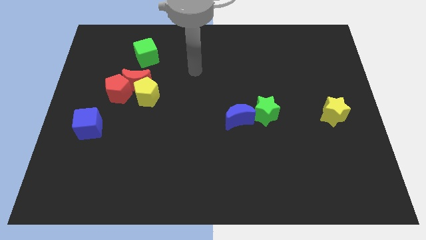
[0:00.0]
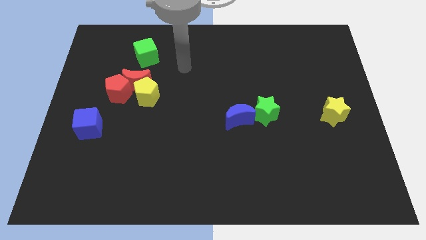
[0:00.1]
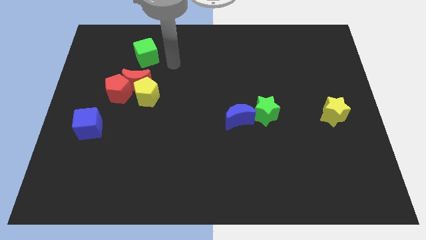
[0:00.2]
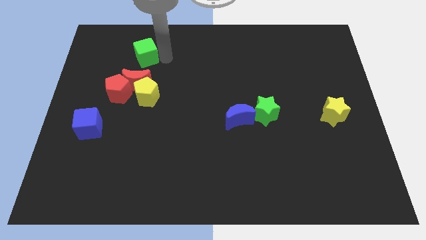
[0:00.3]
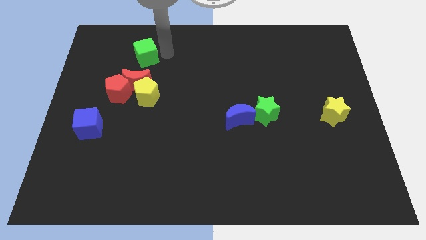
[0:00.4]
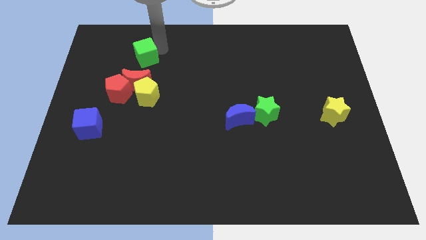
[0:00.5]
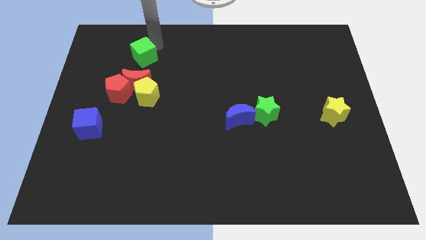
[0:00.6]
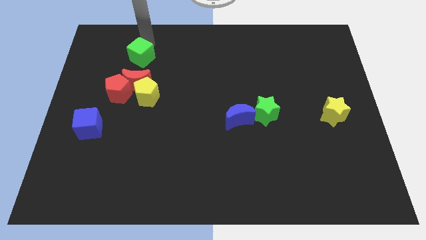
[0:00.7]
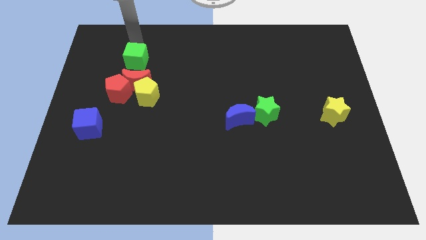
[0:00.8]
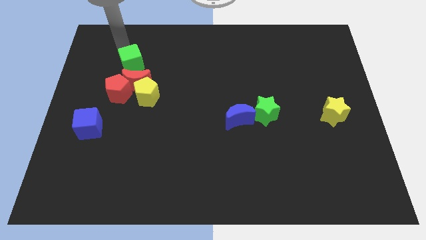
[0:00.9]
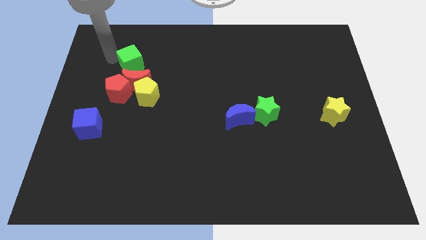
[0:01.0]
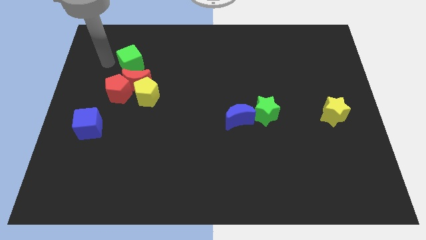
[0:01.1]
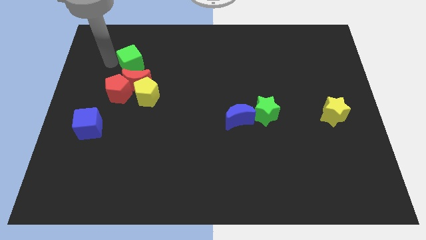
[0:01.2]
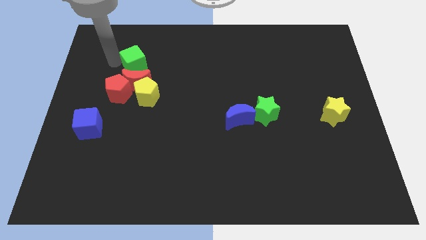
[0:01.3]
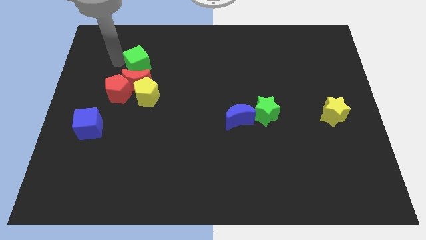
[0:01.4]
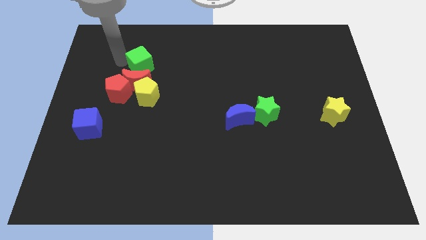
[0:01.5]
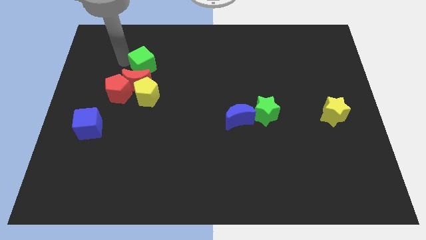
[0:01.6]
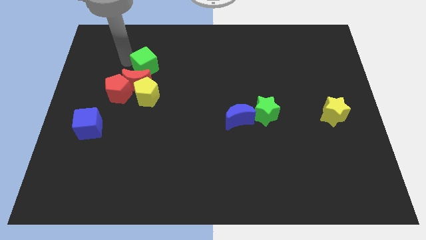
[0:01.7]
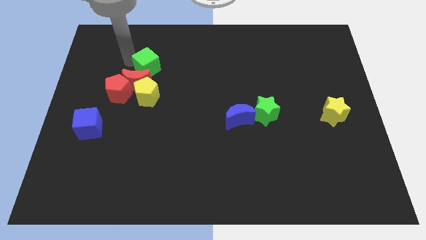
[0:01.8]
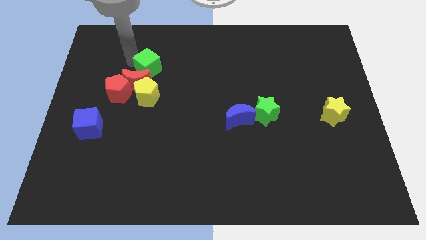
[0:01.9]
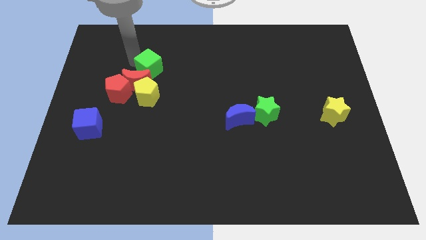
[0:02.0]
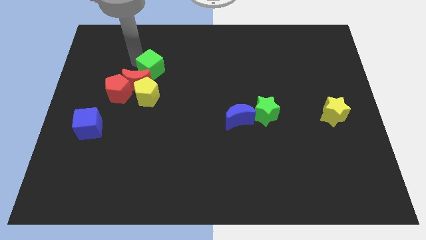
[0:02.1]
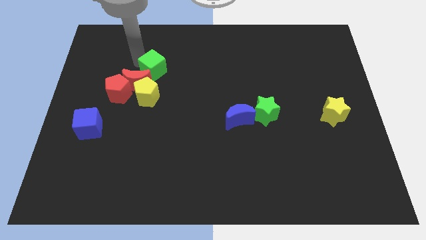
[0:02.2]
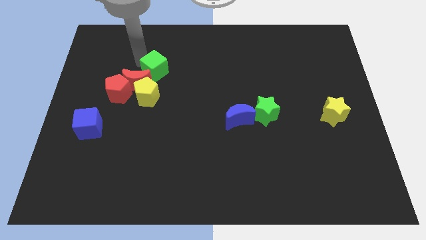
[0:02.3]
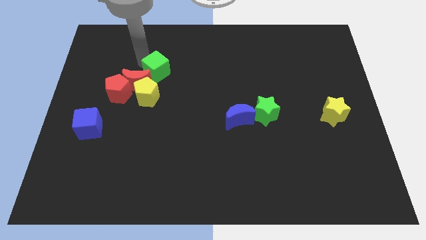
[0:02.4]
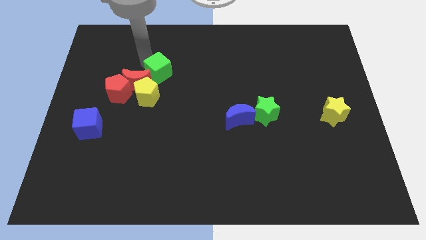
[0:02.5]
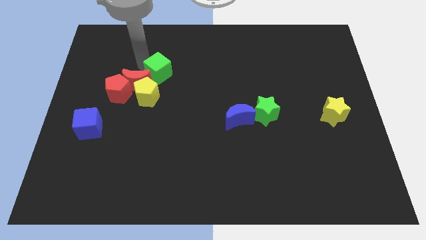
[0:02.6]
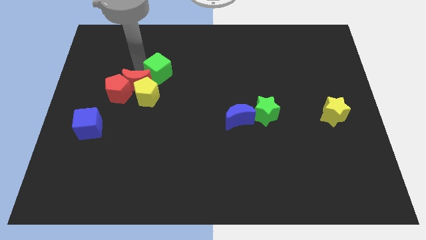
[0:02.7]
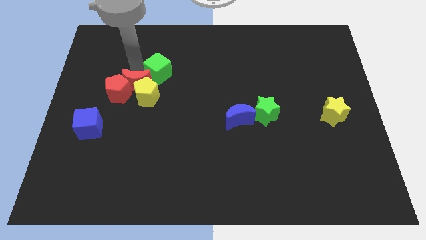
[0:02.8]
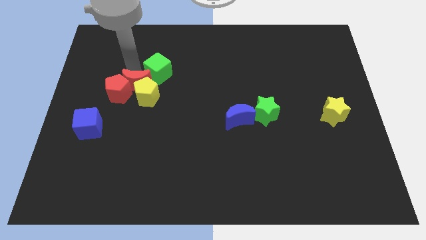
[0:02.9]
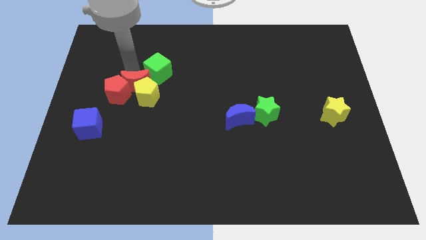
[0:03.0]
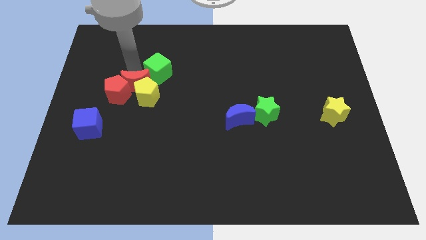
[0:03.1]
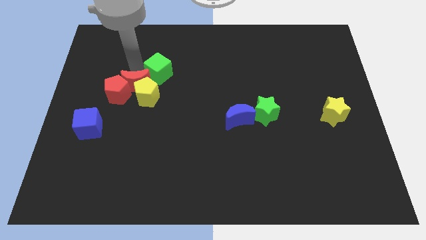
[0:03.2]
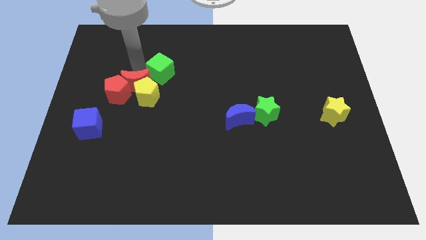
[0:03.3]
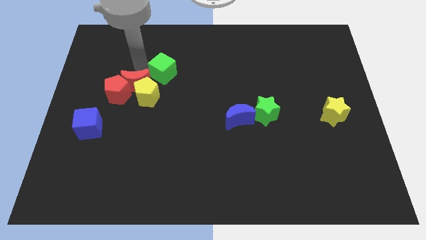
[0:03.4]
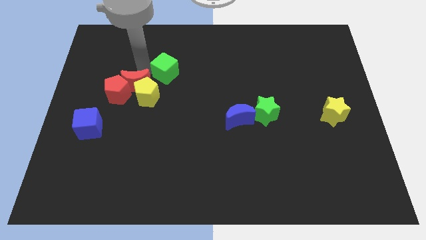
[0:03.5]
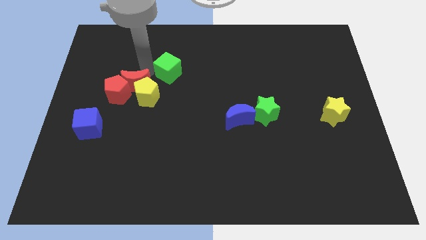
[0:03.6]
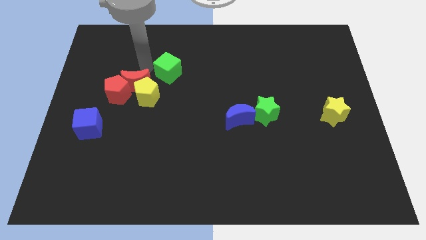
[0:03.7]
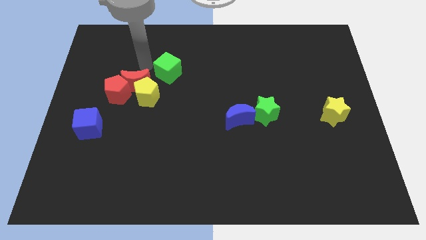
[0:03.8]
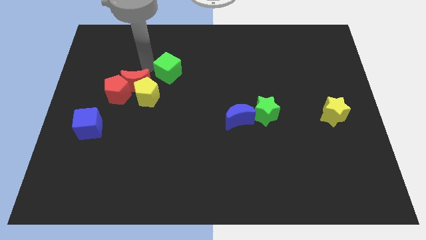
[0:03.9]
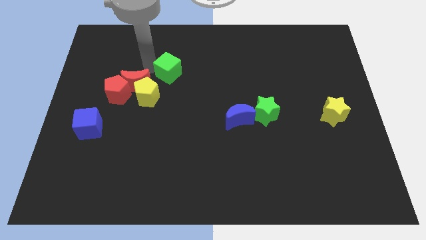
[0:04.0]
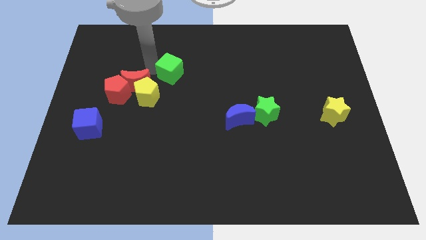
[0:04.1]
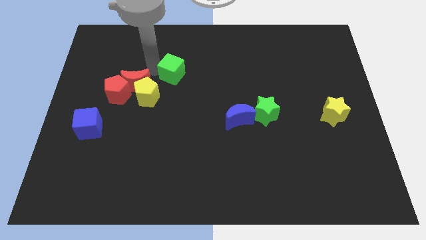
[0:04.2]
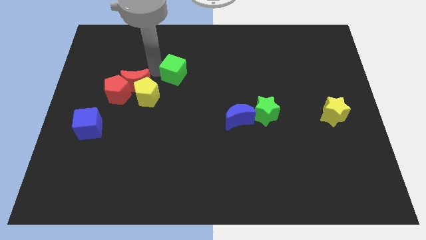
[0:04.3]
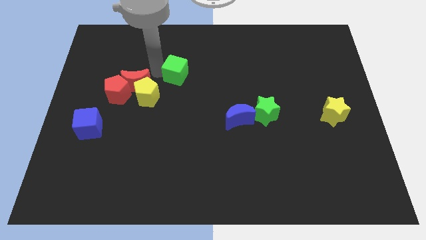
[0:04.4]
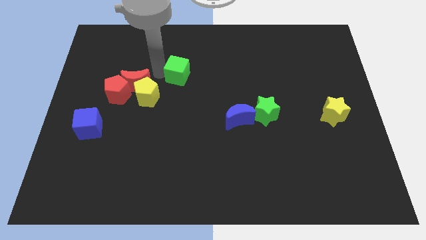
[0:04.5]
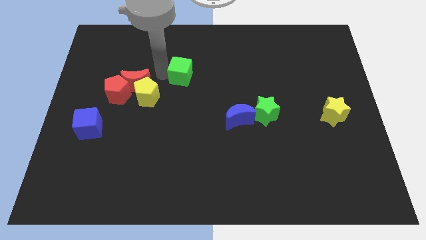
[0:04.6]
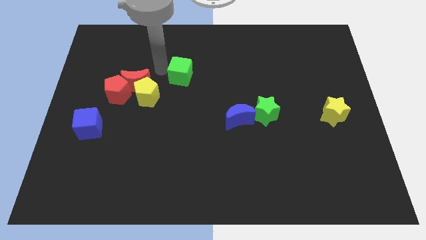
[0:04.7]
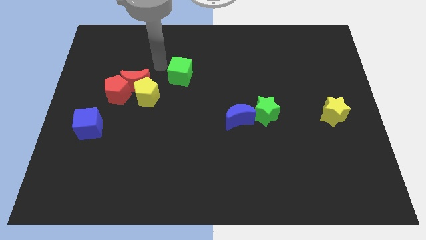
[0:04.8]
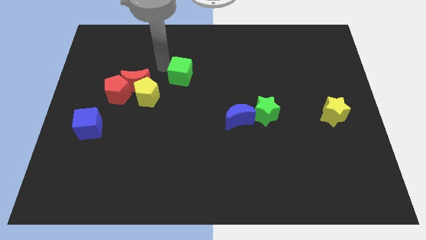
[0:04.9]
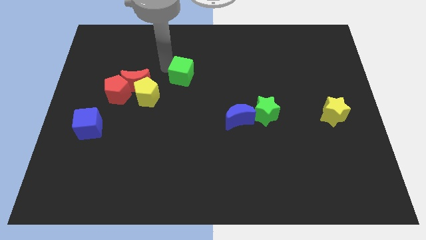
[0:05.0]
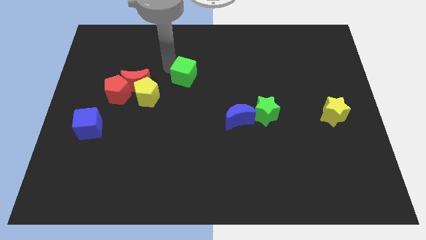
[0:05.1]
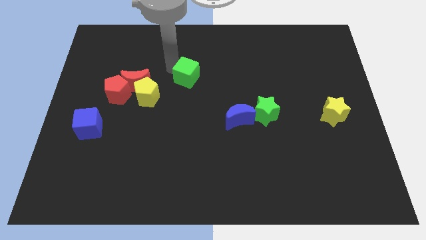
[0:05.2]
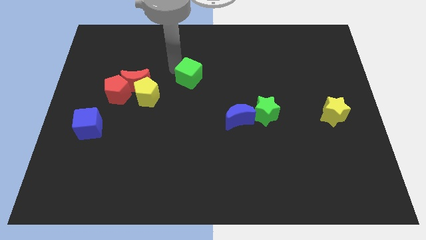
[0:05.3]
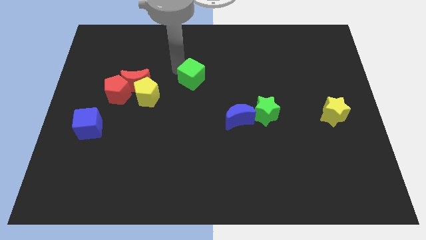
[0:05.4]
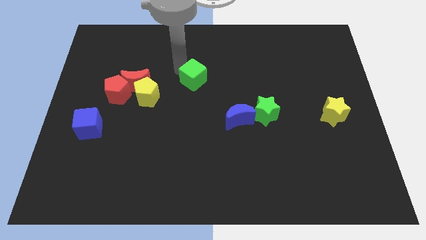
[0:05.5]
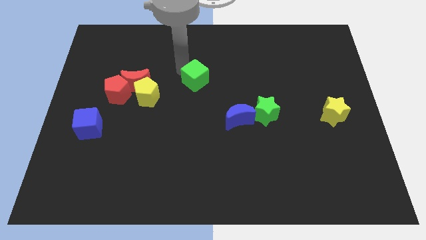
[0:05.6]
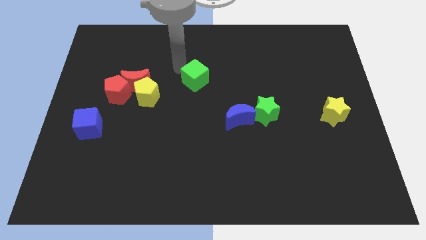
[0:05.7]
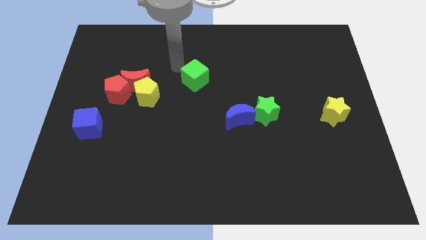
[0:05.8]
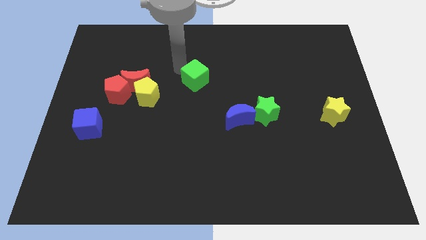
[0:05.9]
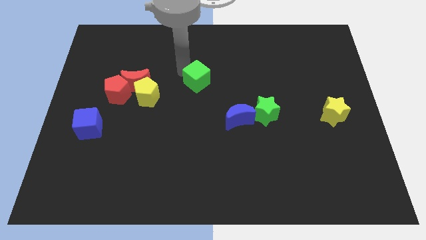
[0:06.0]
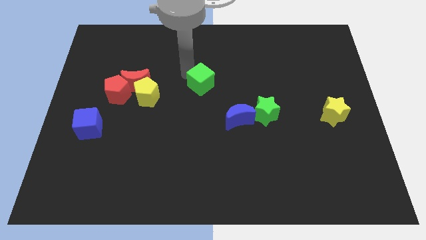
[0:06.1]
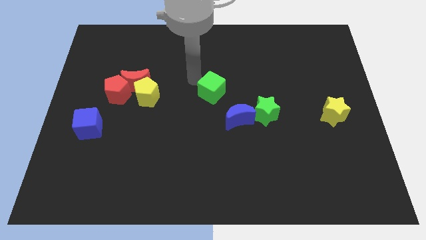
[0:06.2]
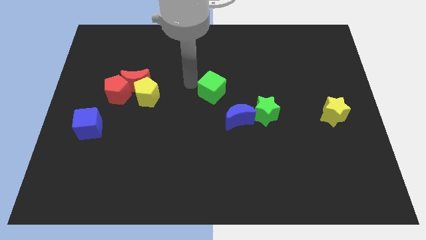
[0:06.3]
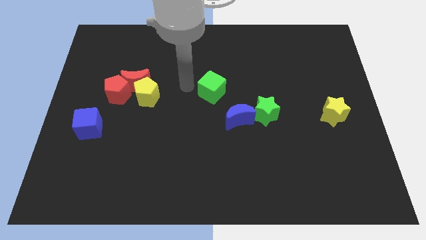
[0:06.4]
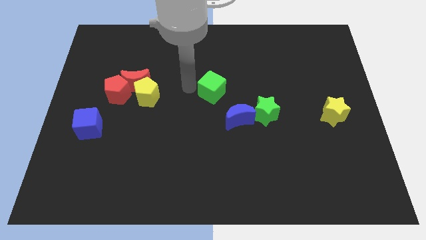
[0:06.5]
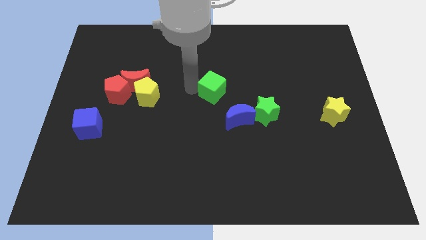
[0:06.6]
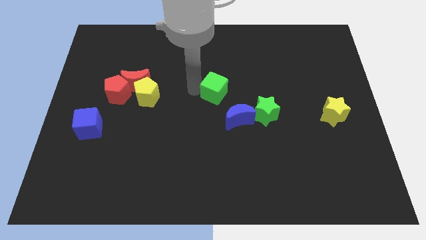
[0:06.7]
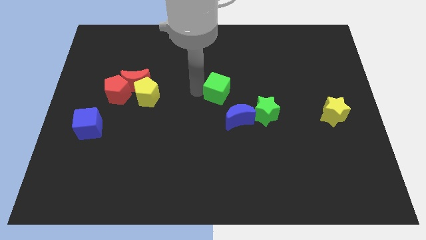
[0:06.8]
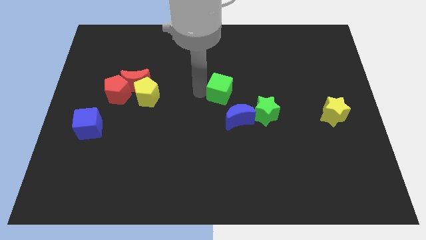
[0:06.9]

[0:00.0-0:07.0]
put the green cube to the top left of the green star
